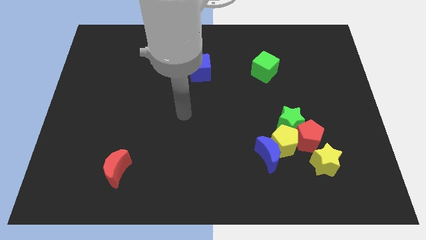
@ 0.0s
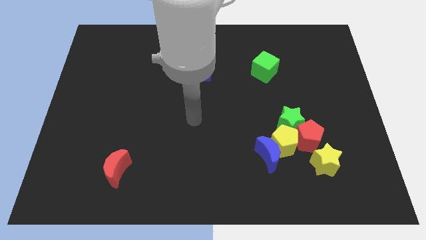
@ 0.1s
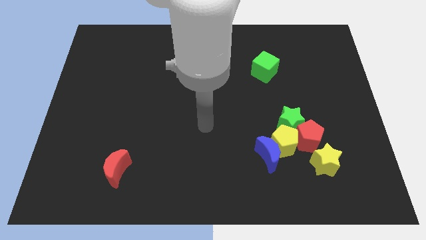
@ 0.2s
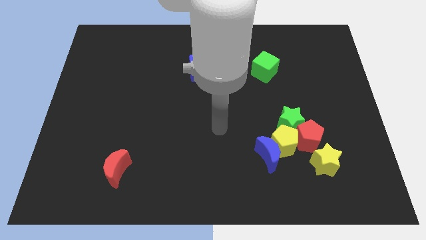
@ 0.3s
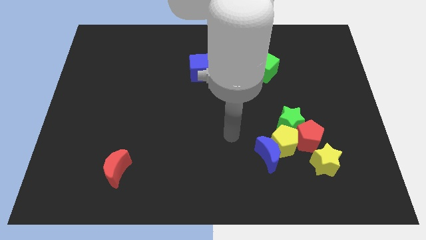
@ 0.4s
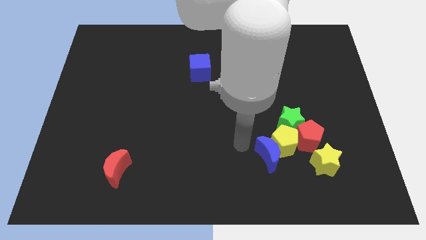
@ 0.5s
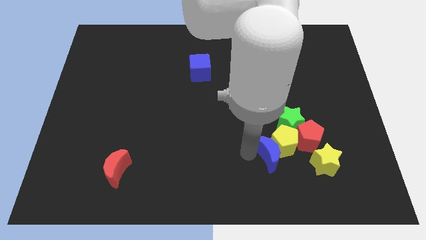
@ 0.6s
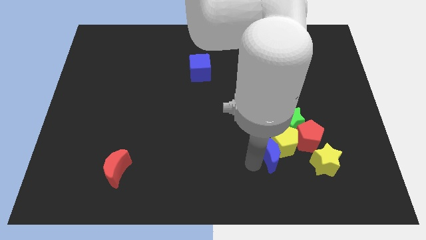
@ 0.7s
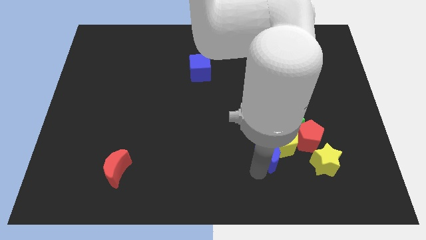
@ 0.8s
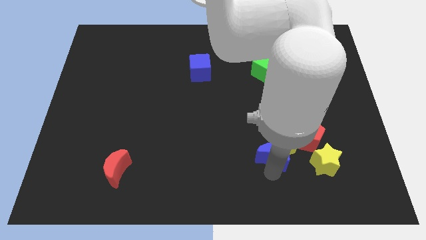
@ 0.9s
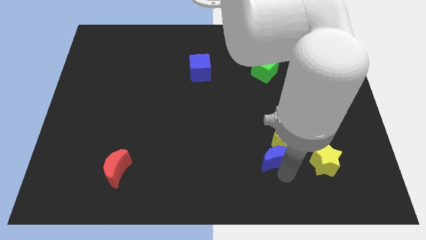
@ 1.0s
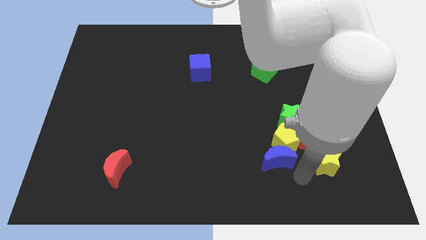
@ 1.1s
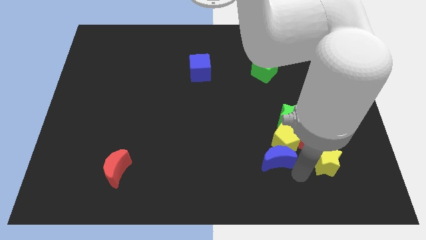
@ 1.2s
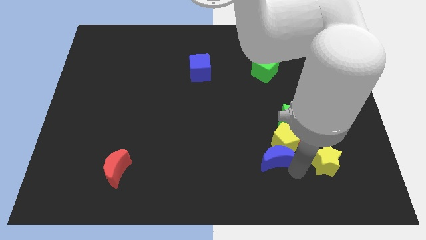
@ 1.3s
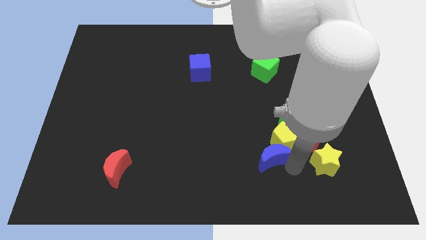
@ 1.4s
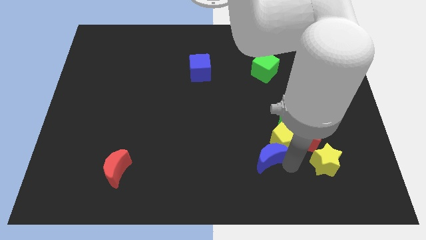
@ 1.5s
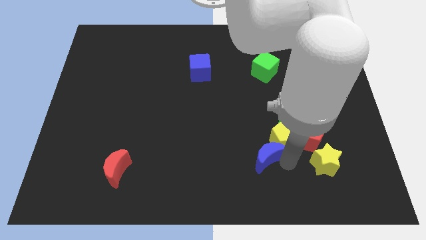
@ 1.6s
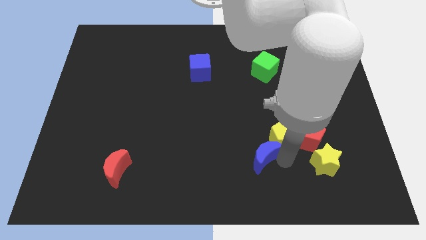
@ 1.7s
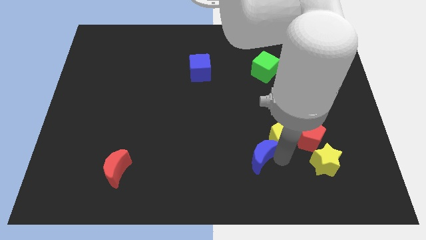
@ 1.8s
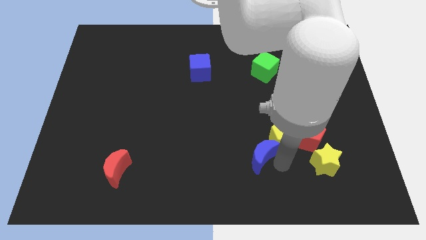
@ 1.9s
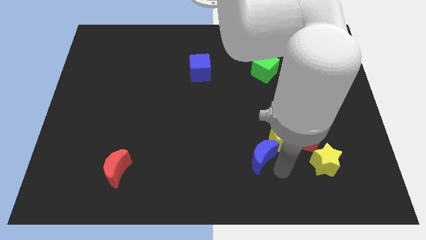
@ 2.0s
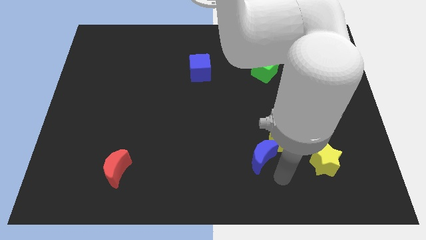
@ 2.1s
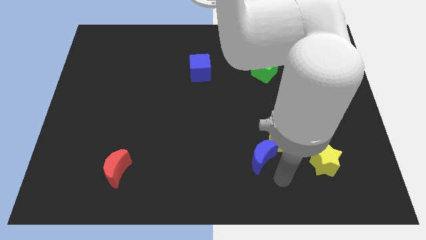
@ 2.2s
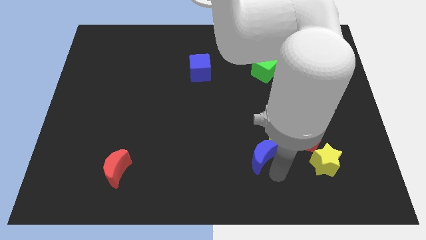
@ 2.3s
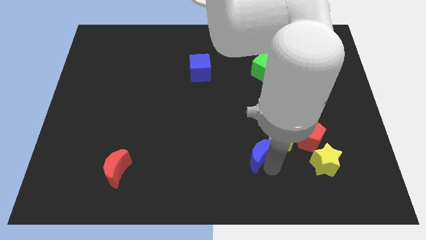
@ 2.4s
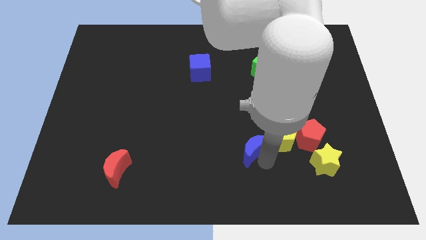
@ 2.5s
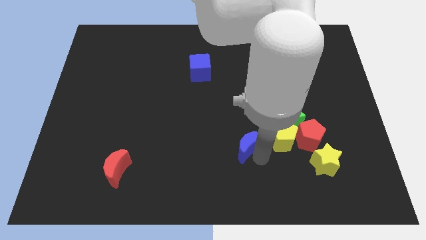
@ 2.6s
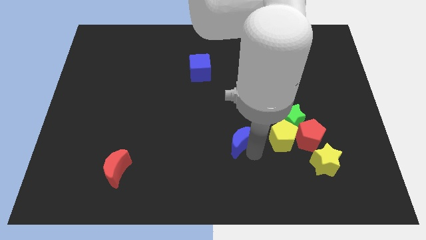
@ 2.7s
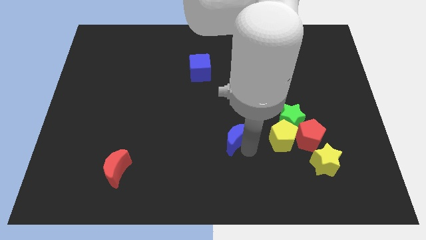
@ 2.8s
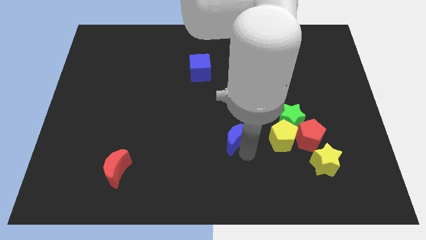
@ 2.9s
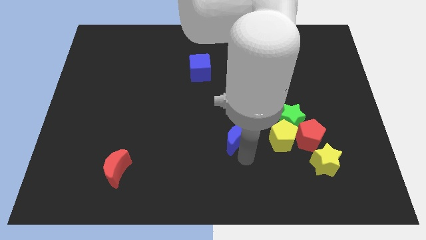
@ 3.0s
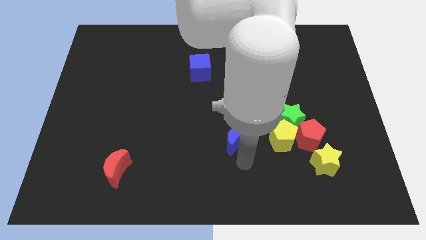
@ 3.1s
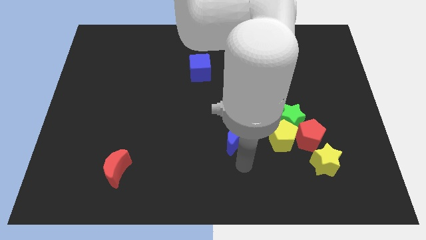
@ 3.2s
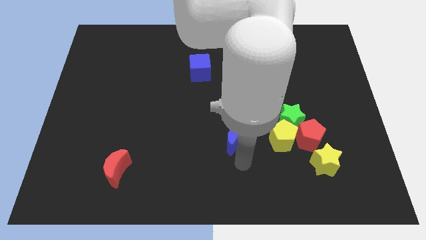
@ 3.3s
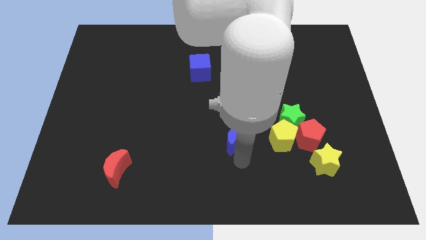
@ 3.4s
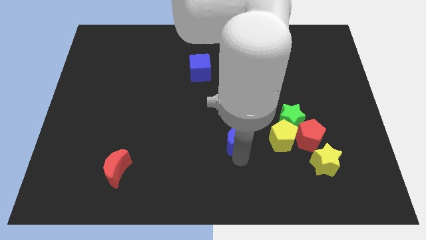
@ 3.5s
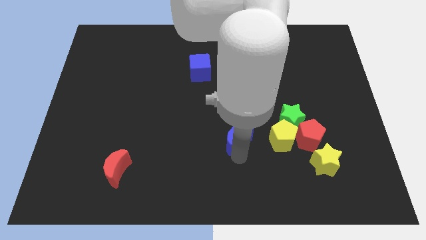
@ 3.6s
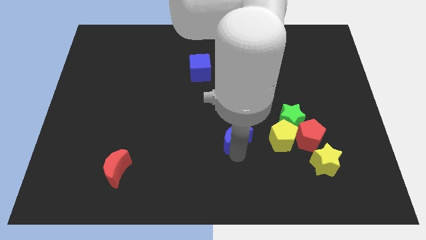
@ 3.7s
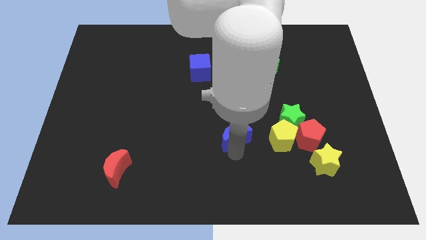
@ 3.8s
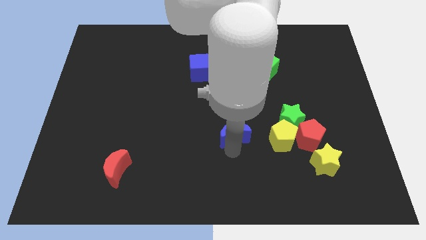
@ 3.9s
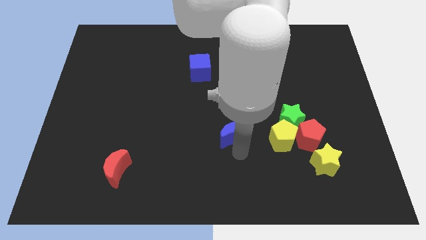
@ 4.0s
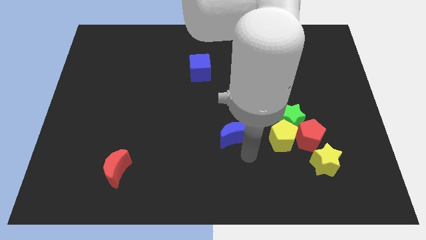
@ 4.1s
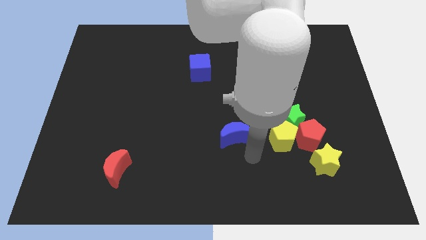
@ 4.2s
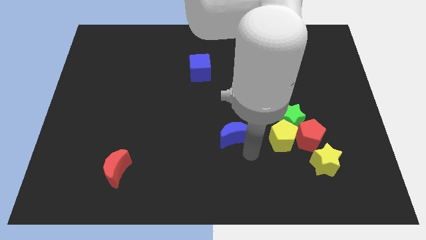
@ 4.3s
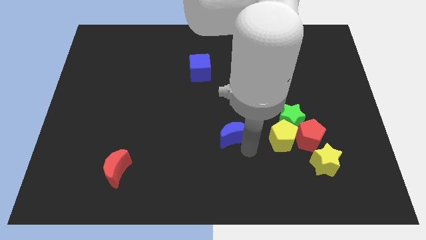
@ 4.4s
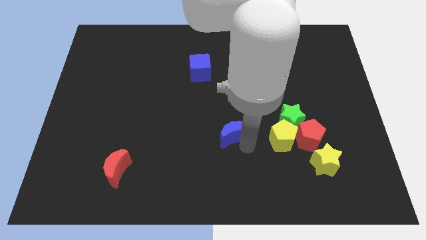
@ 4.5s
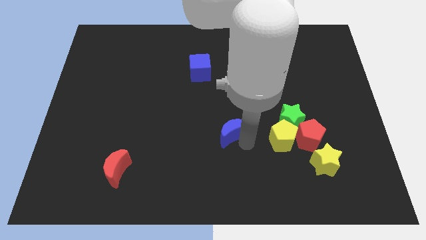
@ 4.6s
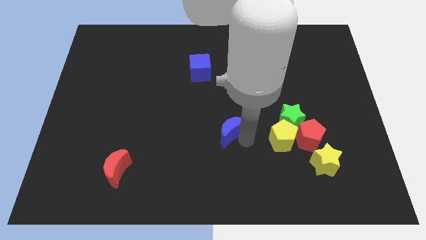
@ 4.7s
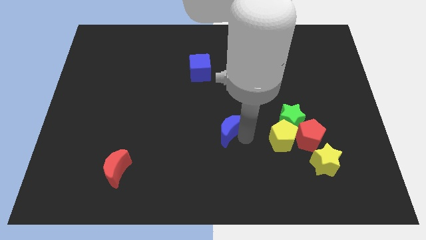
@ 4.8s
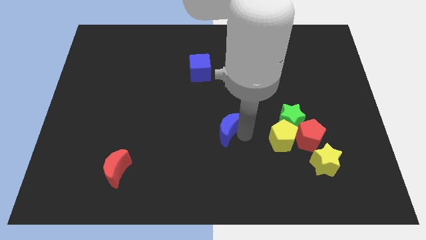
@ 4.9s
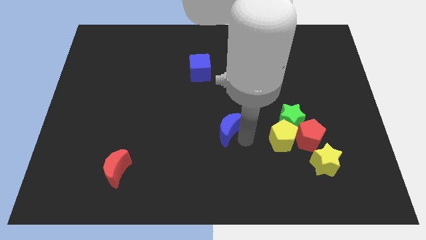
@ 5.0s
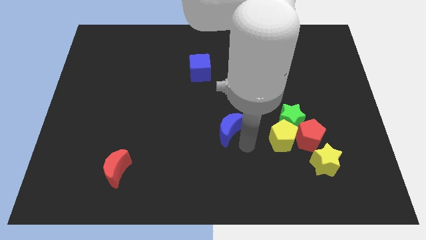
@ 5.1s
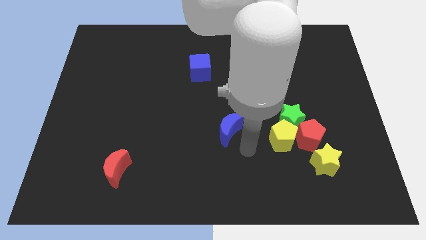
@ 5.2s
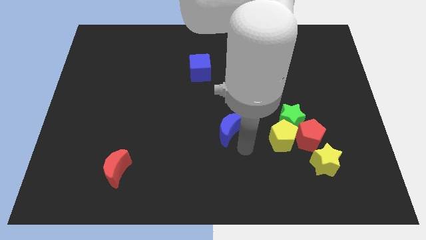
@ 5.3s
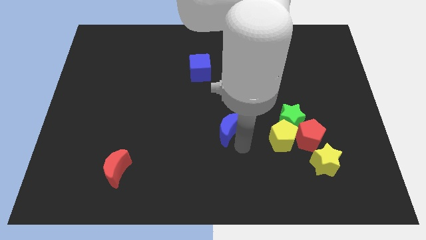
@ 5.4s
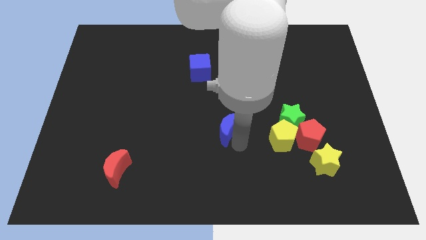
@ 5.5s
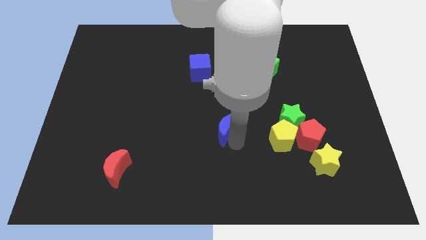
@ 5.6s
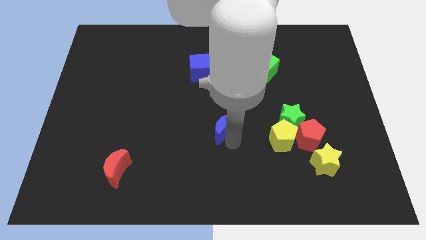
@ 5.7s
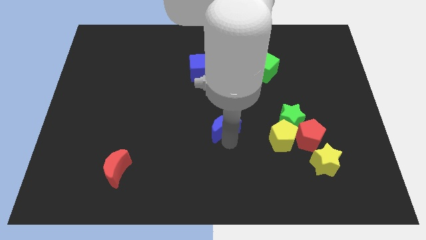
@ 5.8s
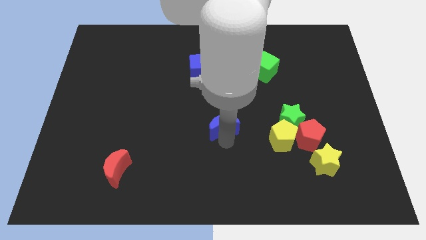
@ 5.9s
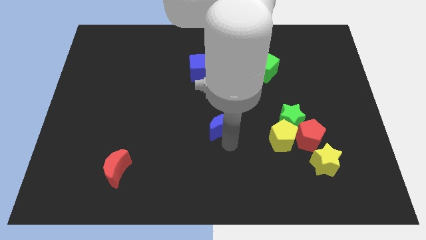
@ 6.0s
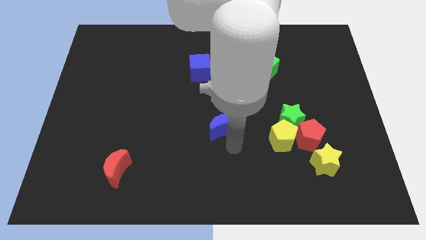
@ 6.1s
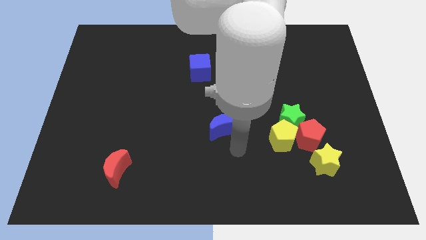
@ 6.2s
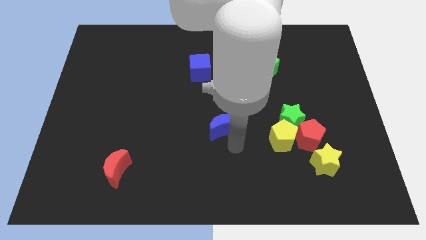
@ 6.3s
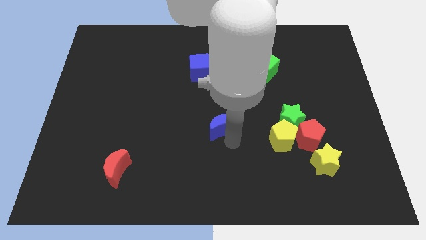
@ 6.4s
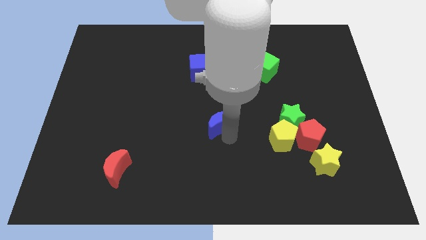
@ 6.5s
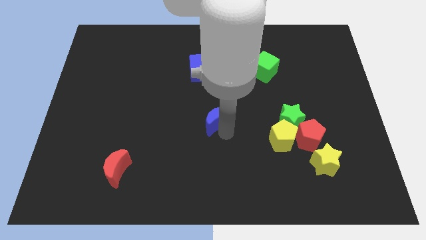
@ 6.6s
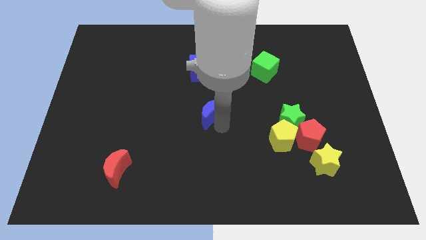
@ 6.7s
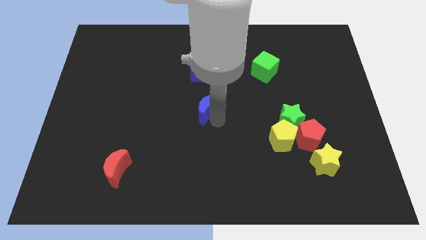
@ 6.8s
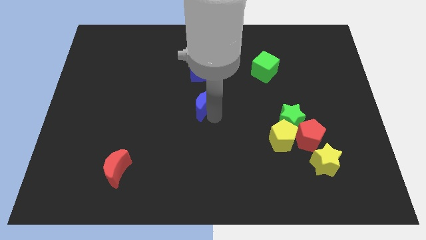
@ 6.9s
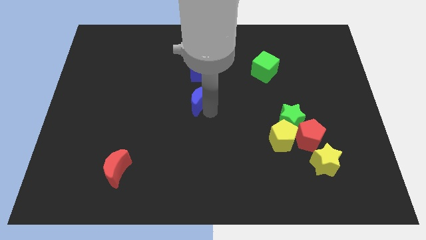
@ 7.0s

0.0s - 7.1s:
push the blue moon diagonally upwards and to the left

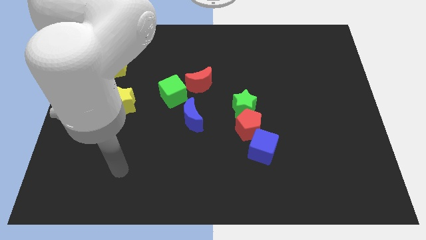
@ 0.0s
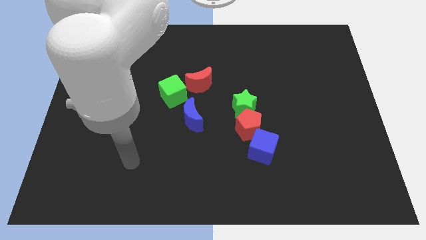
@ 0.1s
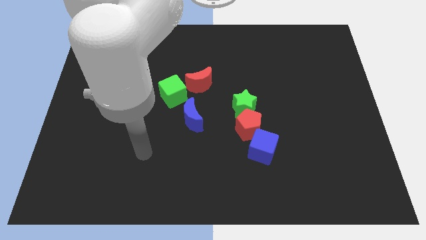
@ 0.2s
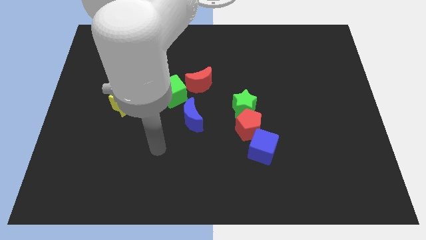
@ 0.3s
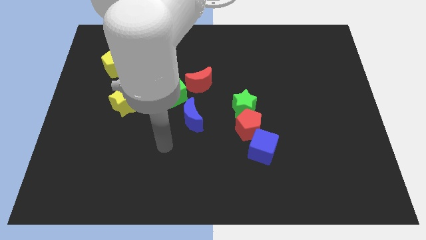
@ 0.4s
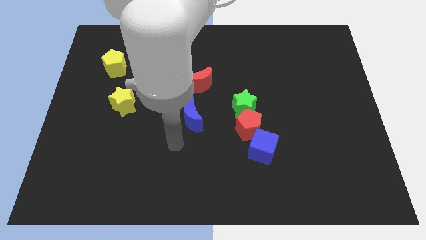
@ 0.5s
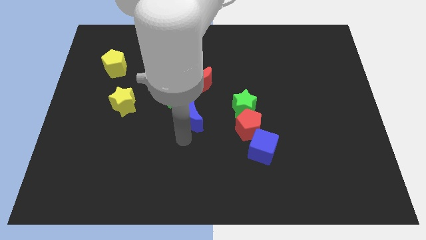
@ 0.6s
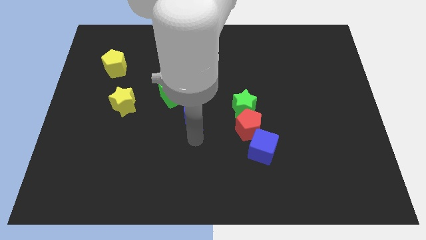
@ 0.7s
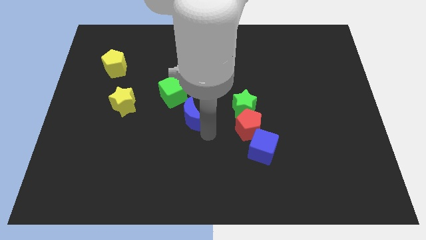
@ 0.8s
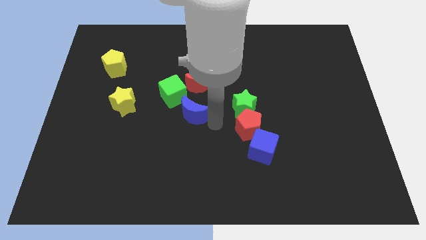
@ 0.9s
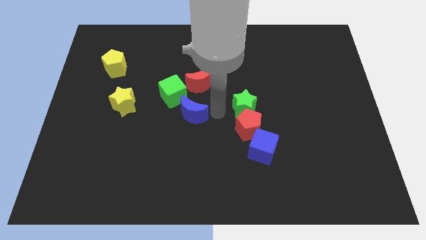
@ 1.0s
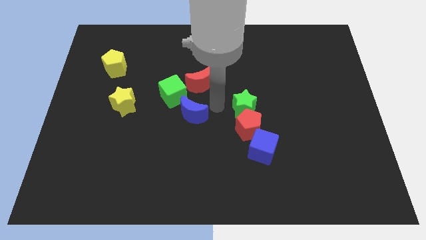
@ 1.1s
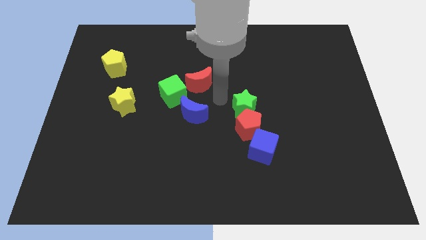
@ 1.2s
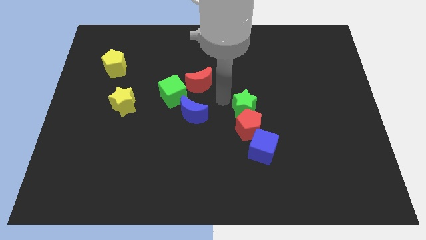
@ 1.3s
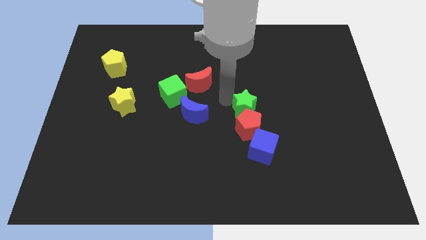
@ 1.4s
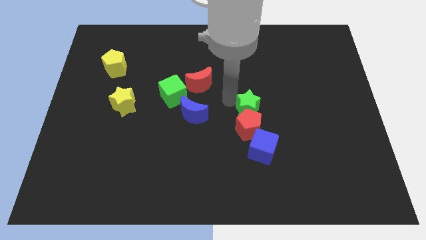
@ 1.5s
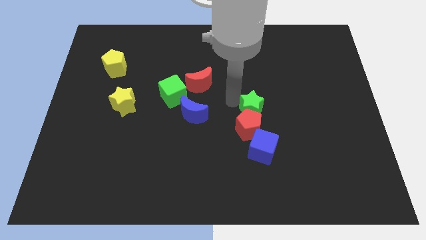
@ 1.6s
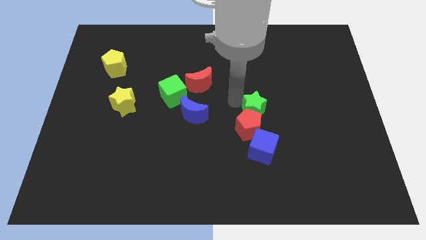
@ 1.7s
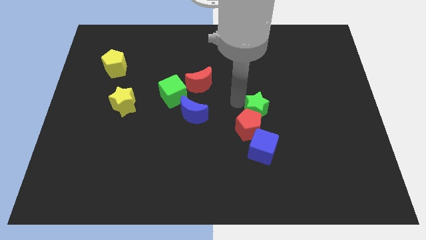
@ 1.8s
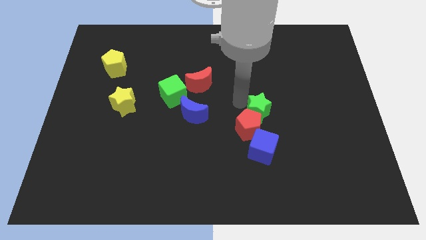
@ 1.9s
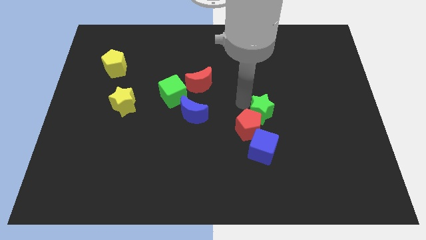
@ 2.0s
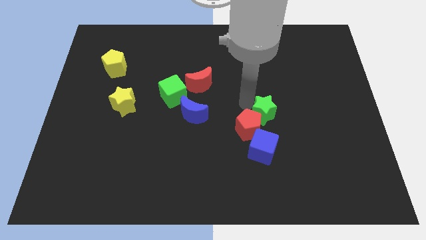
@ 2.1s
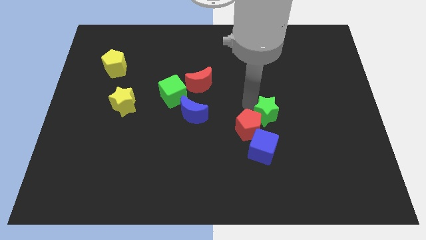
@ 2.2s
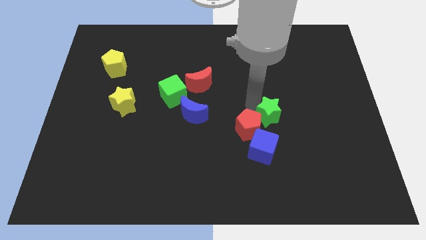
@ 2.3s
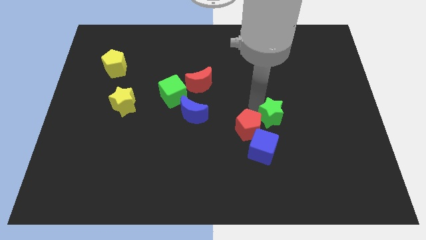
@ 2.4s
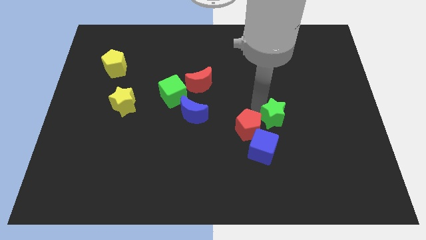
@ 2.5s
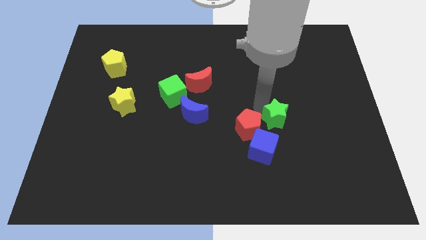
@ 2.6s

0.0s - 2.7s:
push the green star downwards and then right a bit
